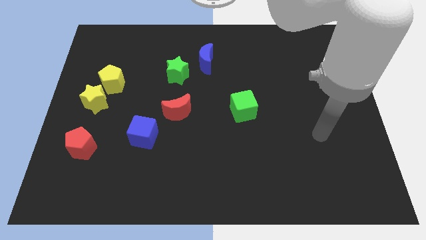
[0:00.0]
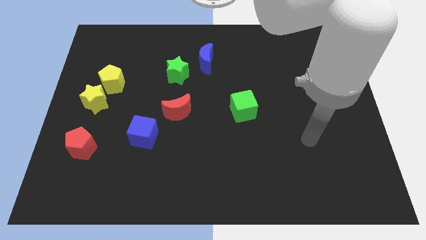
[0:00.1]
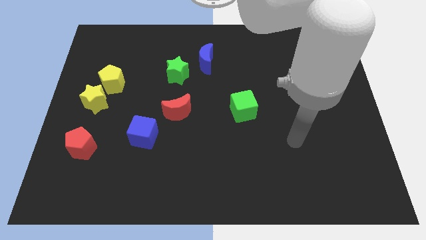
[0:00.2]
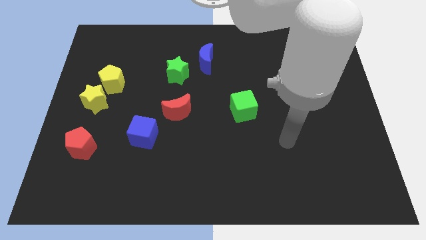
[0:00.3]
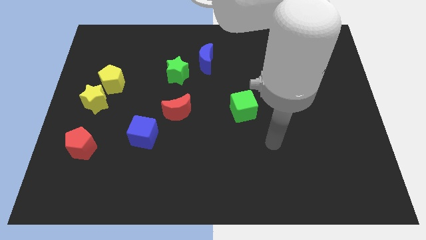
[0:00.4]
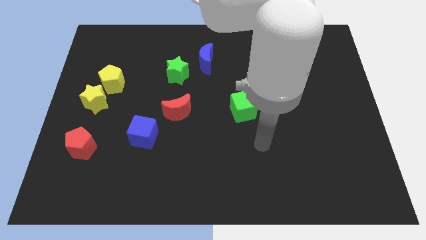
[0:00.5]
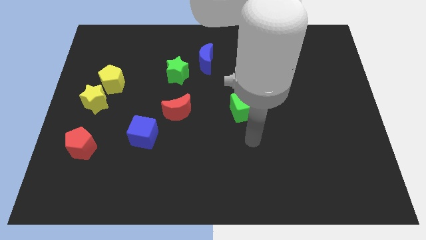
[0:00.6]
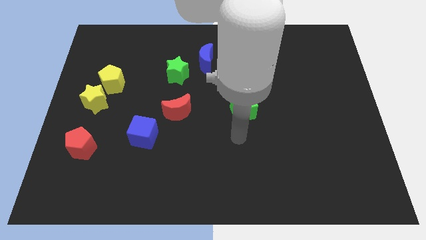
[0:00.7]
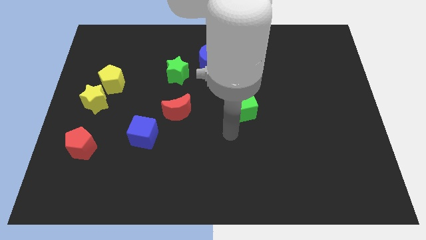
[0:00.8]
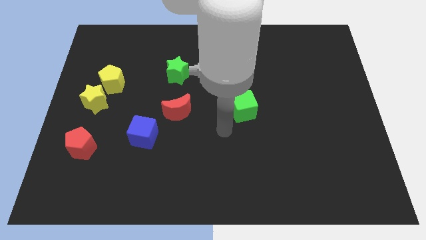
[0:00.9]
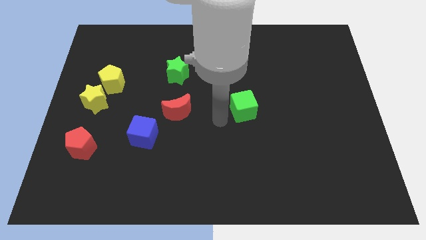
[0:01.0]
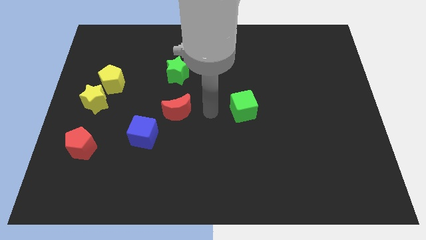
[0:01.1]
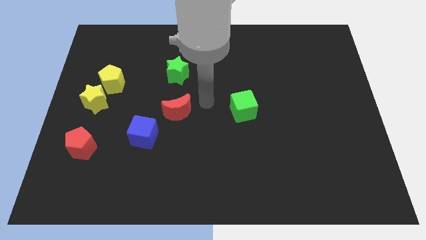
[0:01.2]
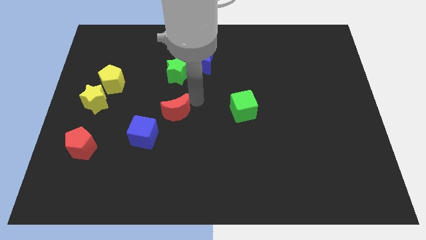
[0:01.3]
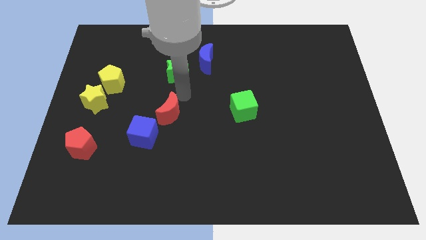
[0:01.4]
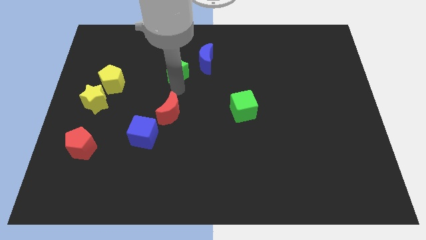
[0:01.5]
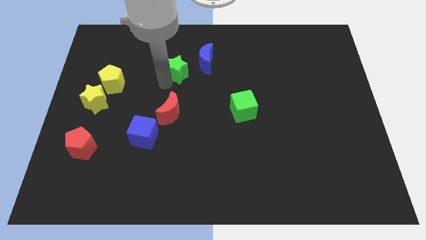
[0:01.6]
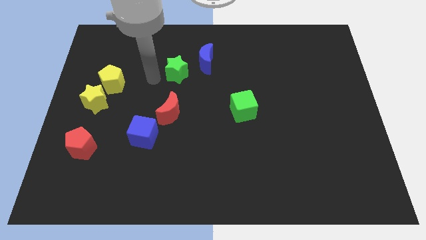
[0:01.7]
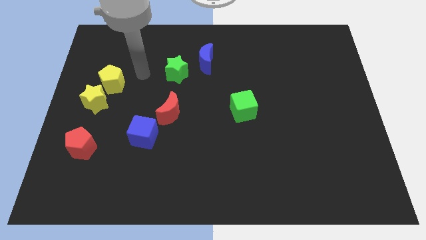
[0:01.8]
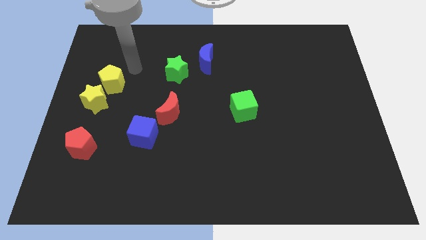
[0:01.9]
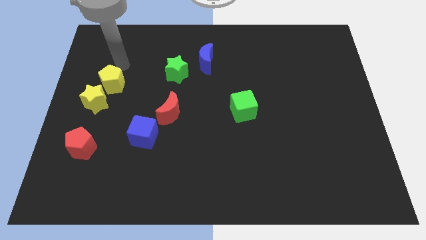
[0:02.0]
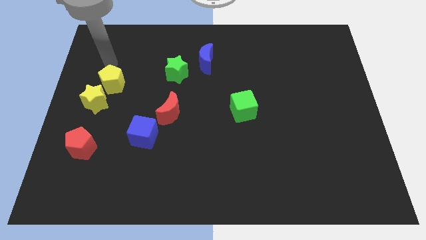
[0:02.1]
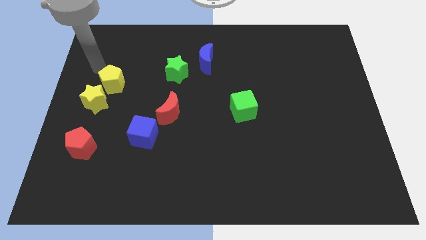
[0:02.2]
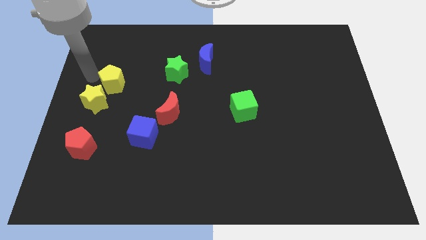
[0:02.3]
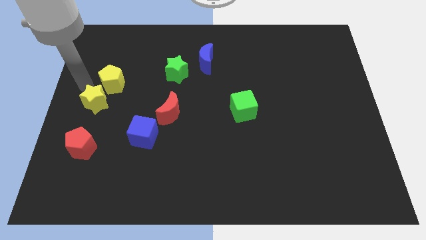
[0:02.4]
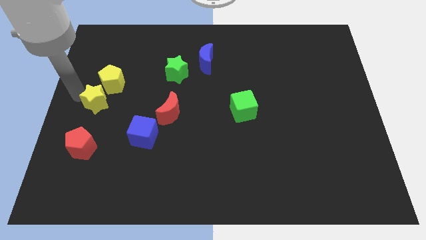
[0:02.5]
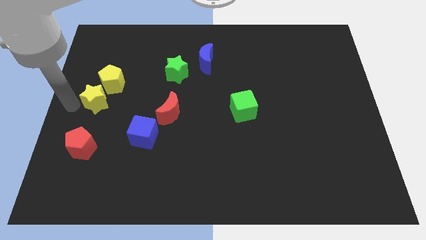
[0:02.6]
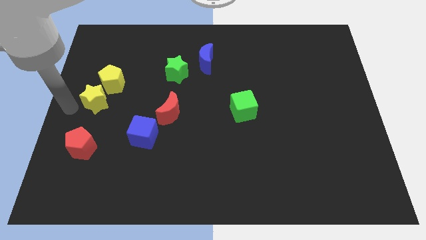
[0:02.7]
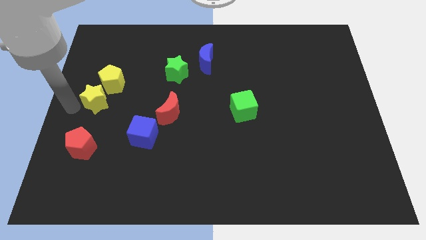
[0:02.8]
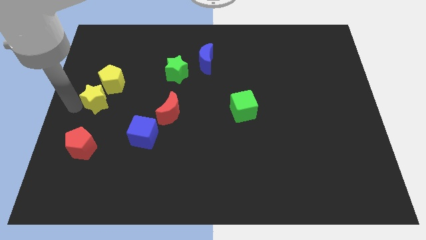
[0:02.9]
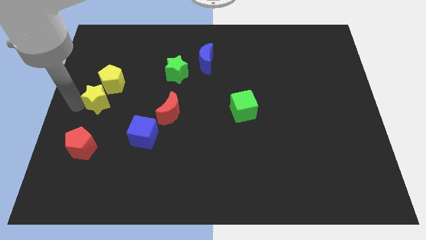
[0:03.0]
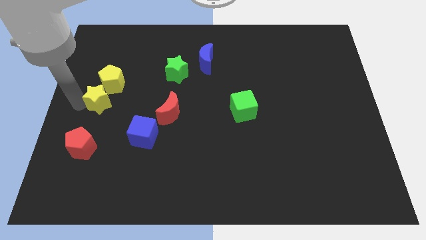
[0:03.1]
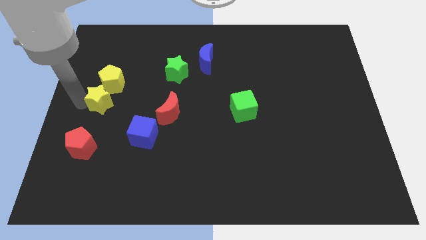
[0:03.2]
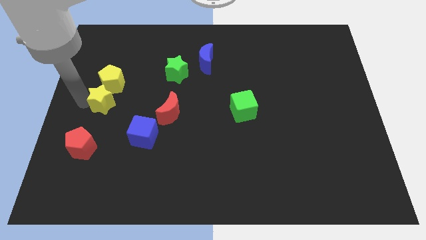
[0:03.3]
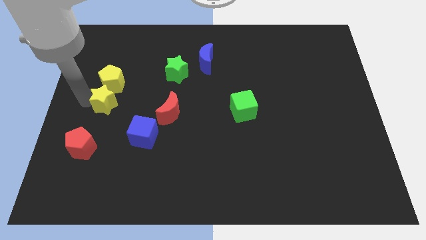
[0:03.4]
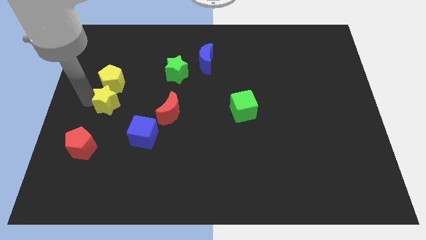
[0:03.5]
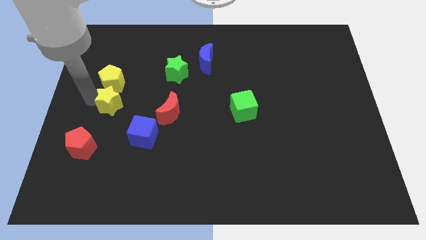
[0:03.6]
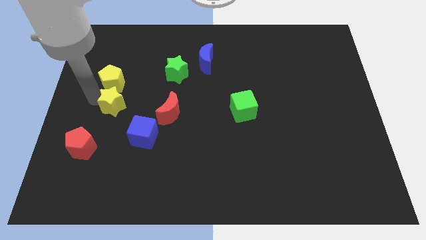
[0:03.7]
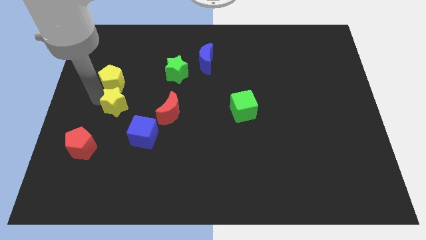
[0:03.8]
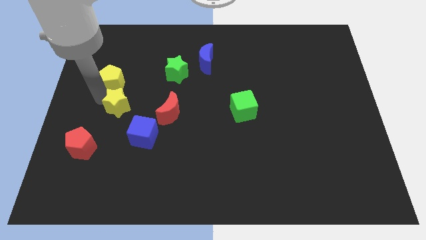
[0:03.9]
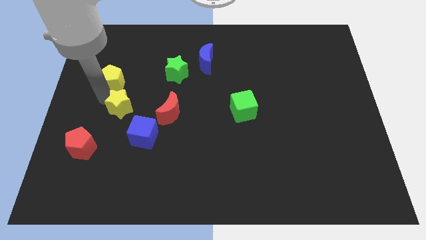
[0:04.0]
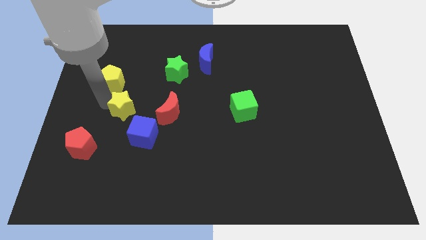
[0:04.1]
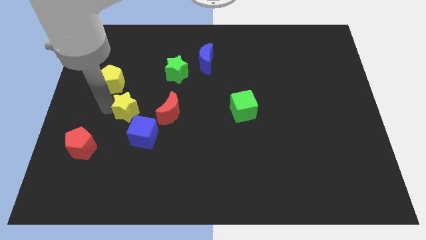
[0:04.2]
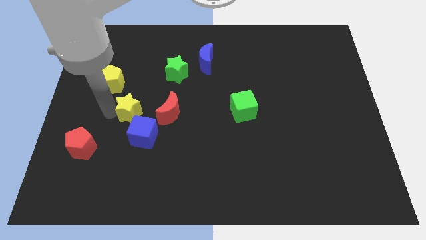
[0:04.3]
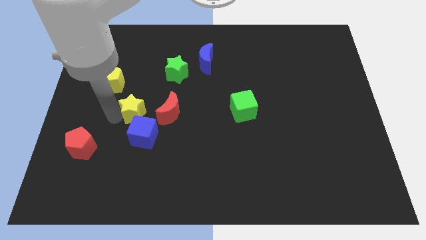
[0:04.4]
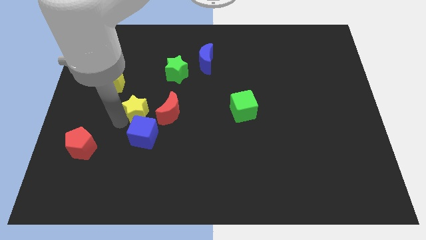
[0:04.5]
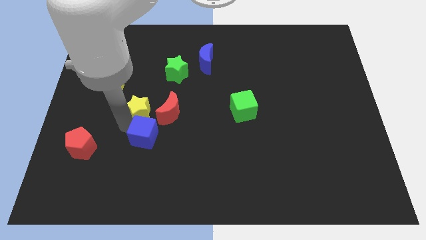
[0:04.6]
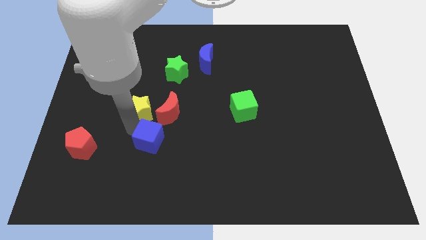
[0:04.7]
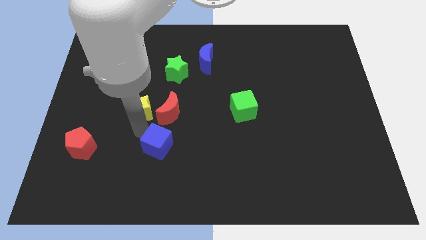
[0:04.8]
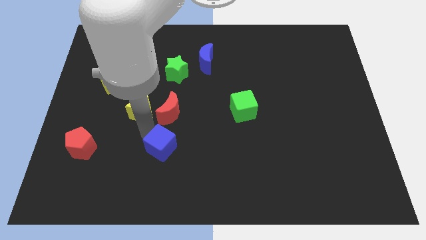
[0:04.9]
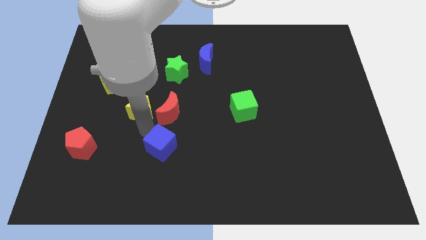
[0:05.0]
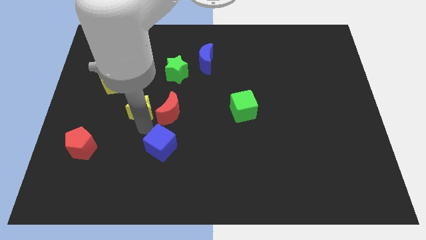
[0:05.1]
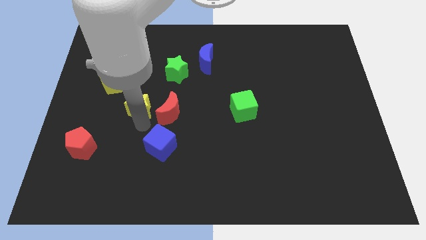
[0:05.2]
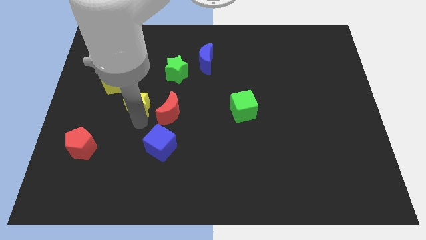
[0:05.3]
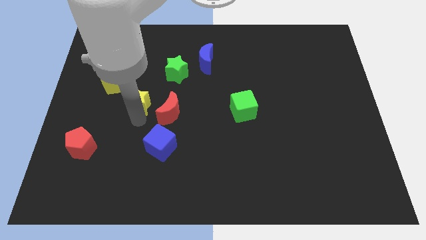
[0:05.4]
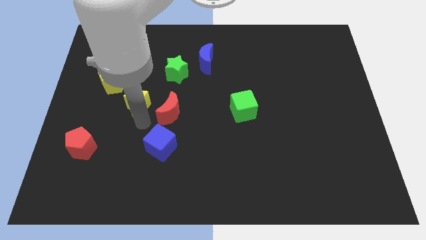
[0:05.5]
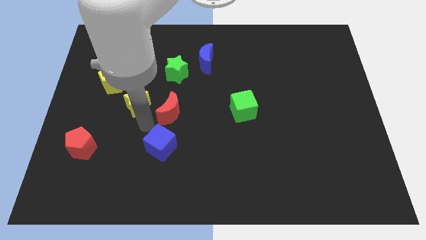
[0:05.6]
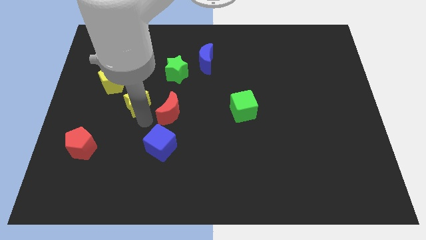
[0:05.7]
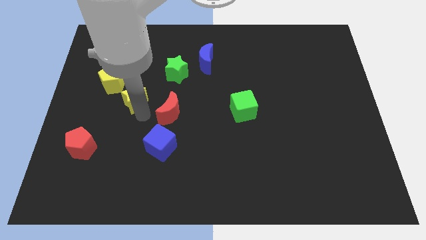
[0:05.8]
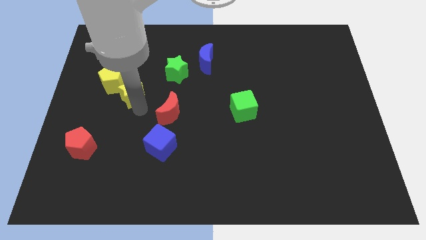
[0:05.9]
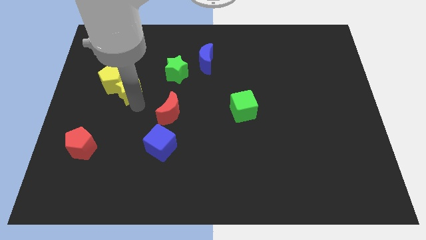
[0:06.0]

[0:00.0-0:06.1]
move the yellow star diagonally upwards and right somewhat

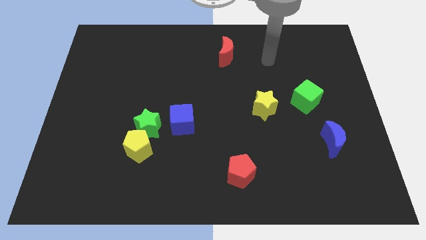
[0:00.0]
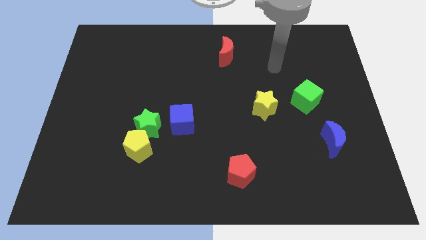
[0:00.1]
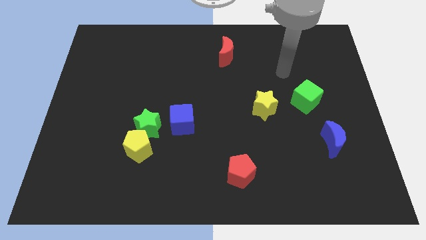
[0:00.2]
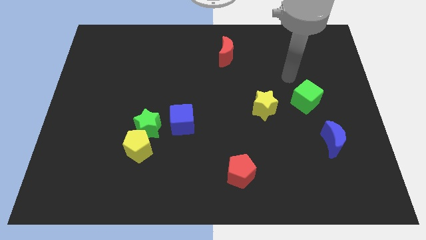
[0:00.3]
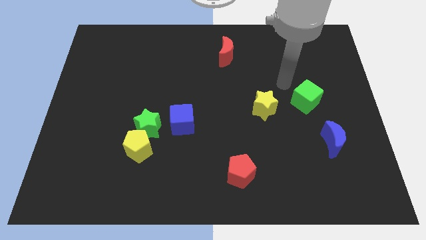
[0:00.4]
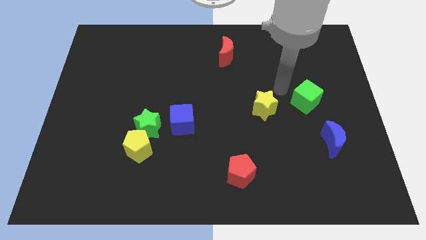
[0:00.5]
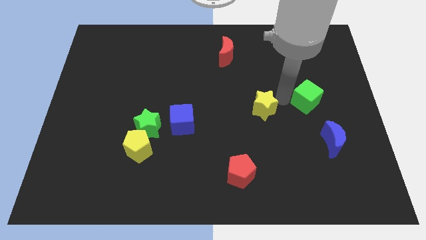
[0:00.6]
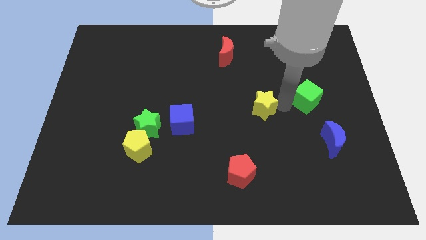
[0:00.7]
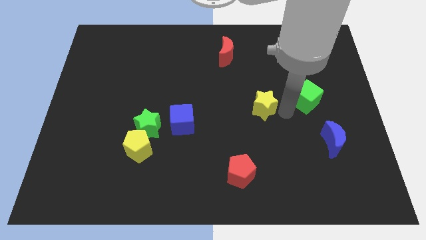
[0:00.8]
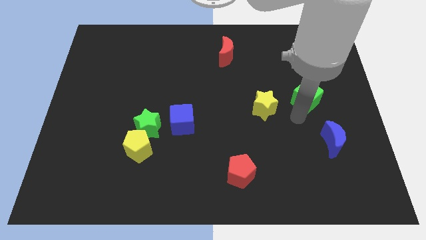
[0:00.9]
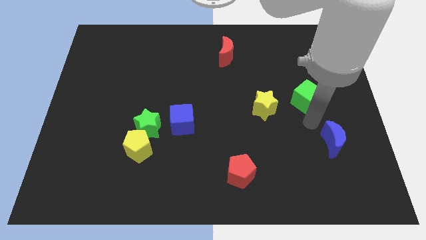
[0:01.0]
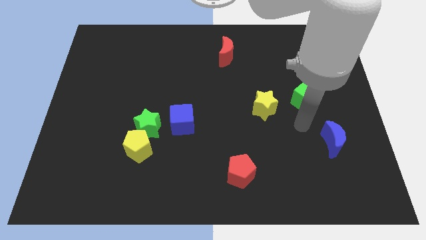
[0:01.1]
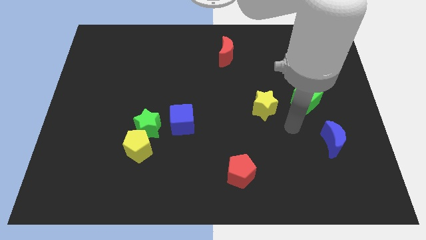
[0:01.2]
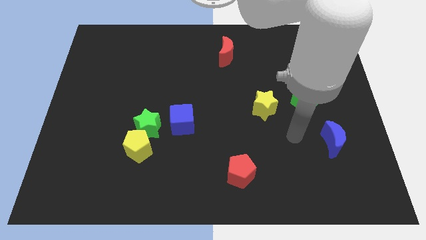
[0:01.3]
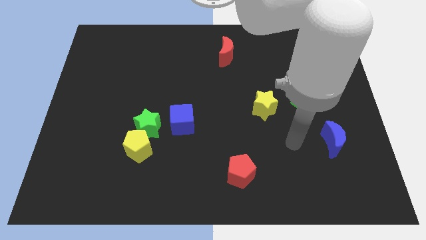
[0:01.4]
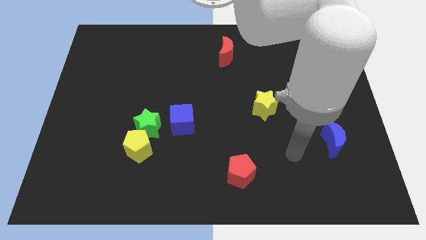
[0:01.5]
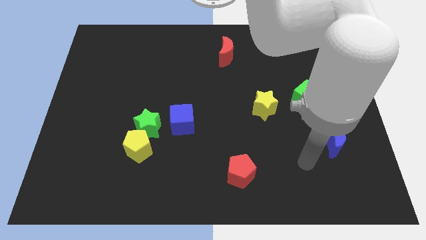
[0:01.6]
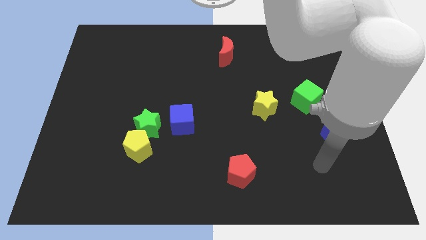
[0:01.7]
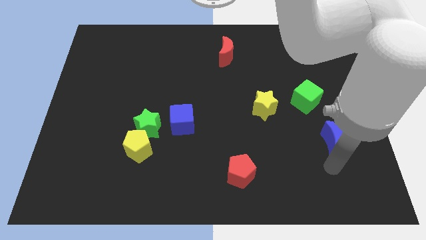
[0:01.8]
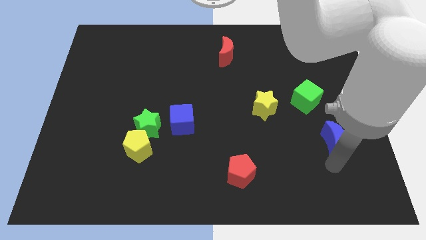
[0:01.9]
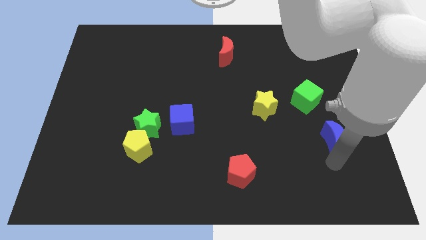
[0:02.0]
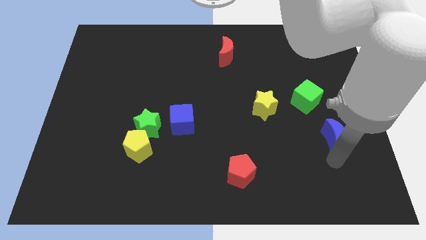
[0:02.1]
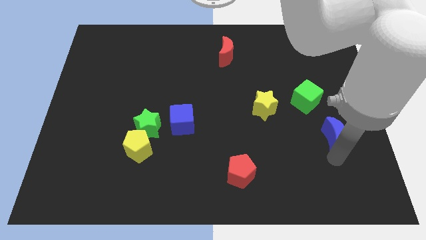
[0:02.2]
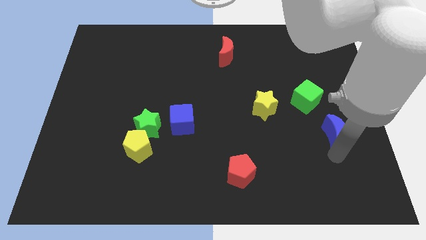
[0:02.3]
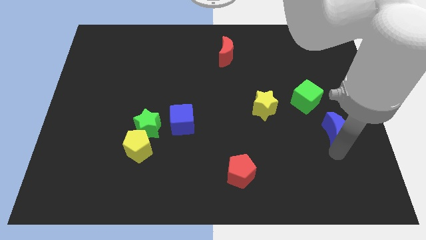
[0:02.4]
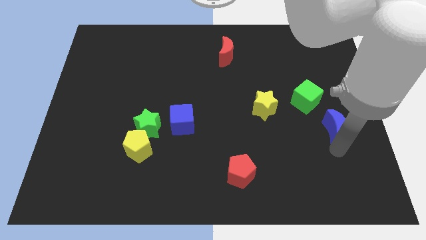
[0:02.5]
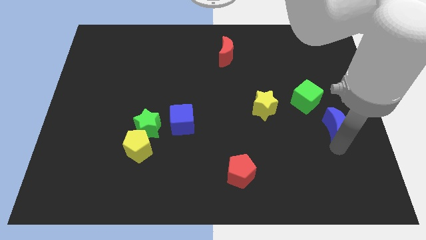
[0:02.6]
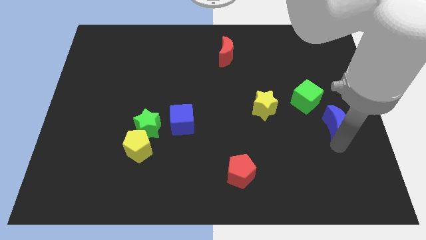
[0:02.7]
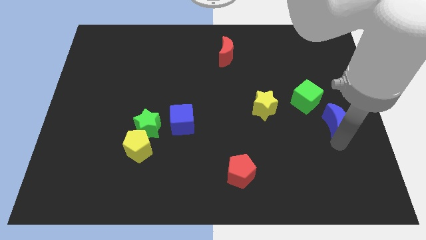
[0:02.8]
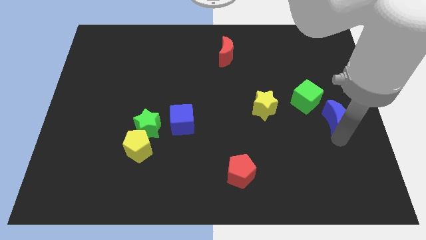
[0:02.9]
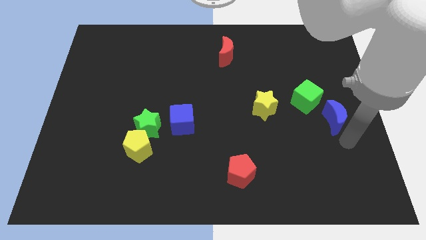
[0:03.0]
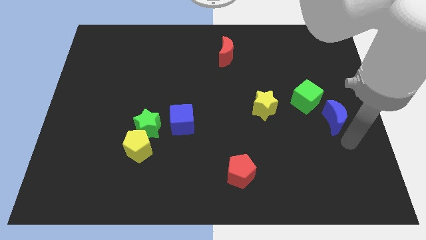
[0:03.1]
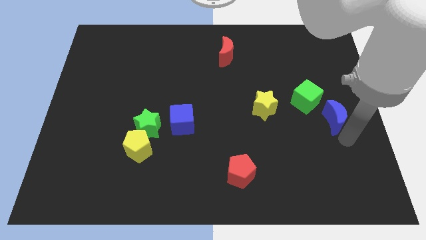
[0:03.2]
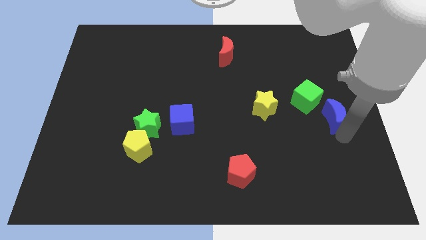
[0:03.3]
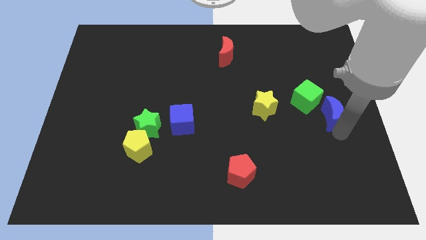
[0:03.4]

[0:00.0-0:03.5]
push the blue moon slightly upwards
